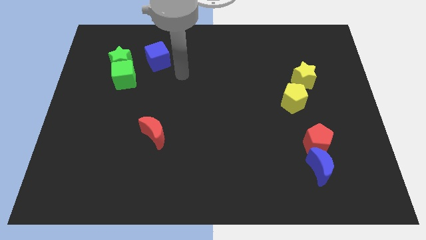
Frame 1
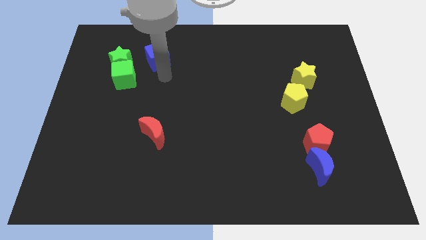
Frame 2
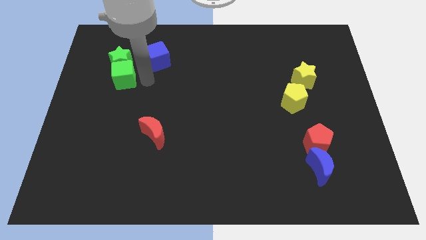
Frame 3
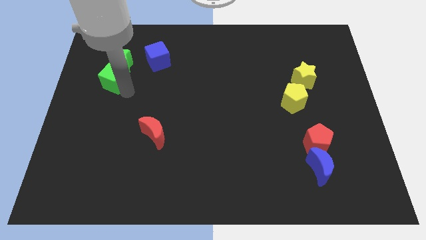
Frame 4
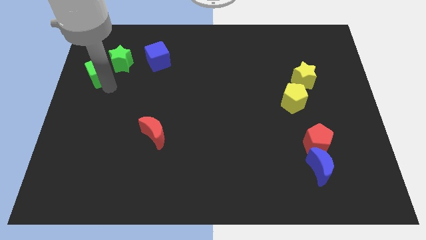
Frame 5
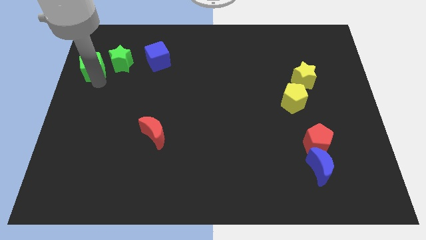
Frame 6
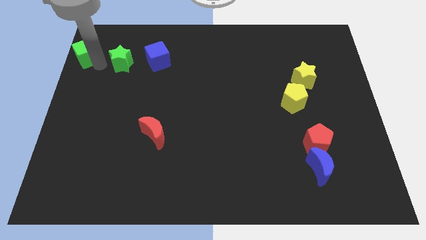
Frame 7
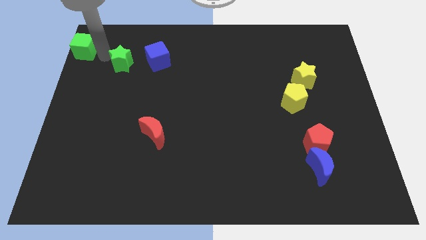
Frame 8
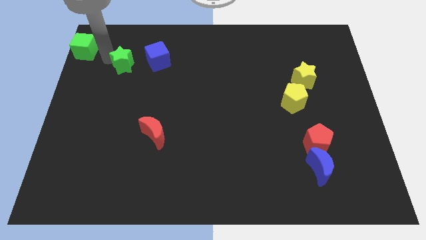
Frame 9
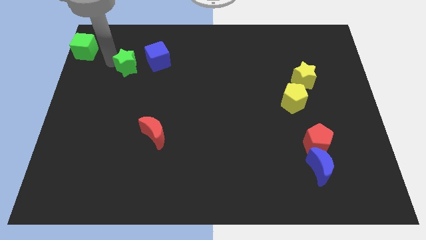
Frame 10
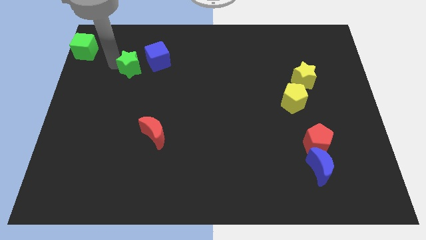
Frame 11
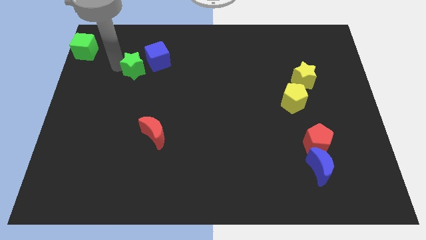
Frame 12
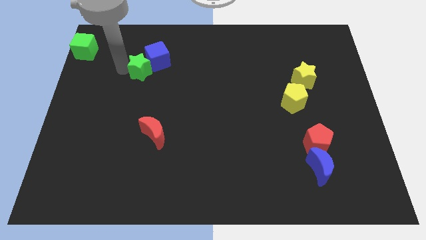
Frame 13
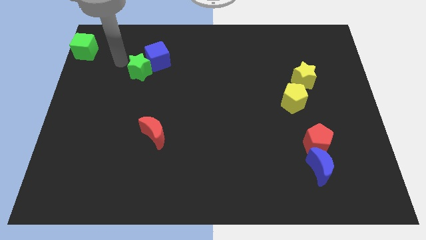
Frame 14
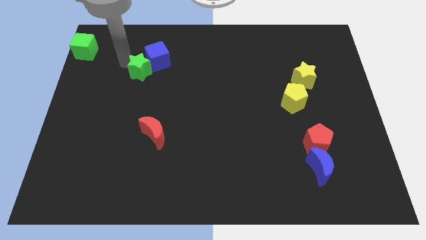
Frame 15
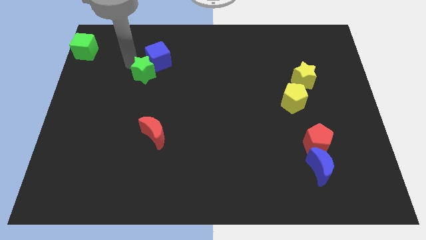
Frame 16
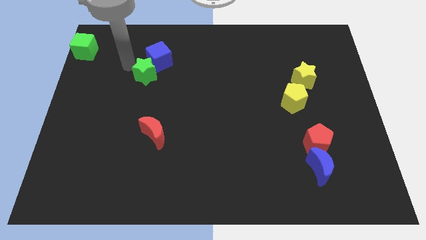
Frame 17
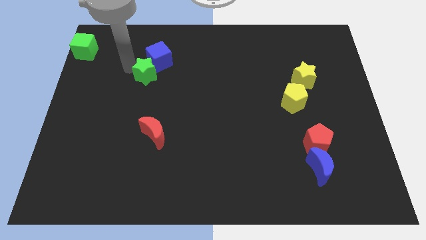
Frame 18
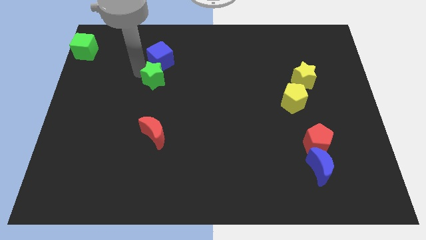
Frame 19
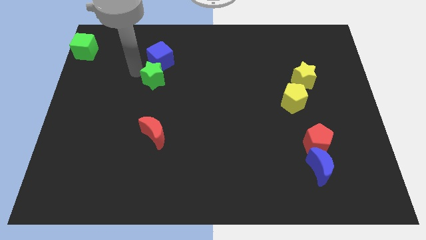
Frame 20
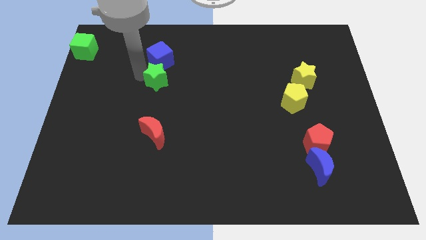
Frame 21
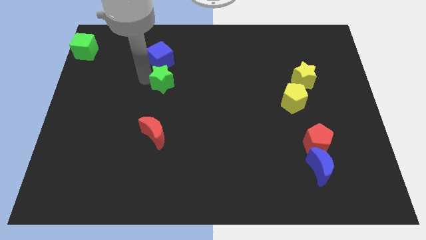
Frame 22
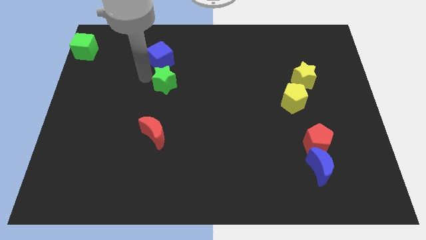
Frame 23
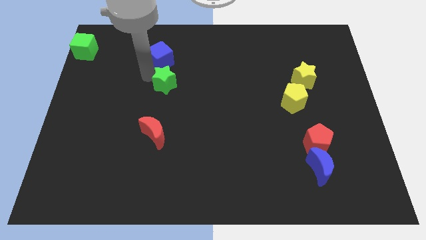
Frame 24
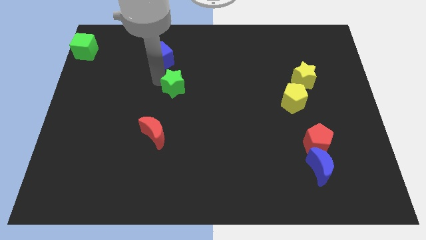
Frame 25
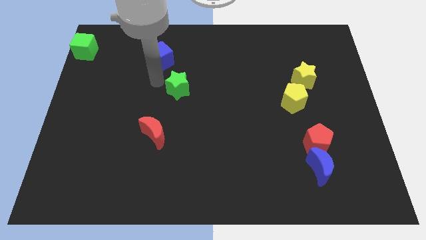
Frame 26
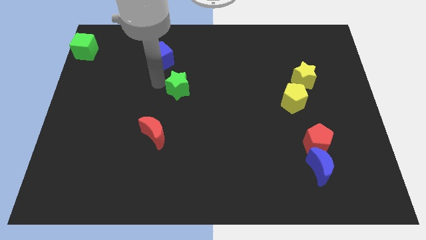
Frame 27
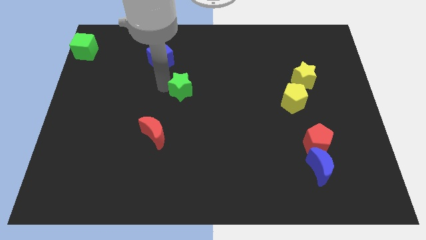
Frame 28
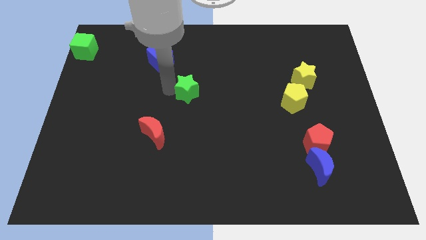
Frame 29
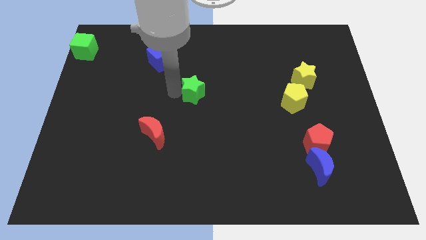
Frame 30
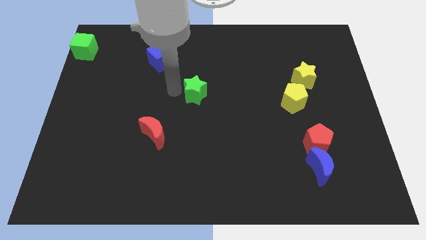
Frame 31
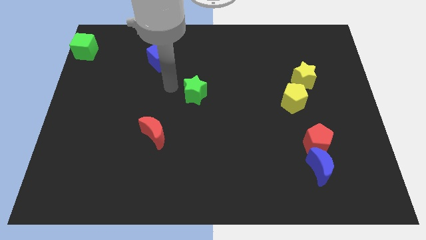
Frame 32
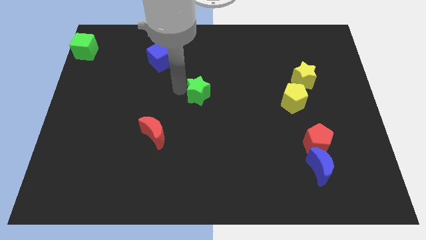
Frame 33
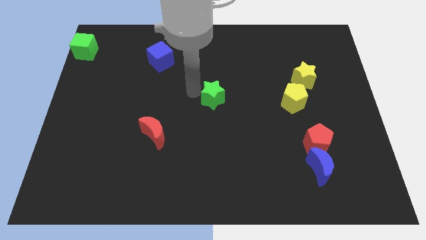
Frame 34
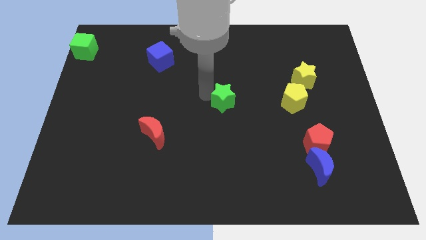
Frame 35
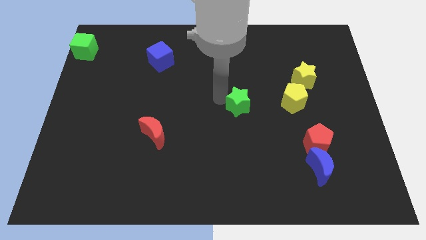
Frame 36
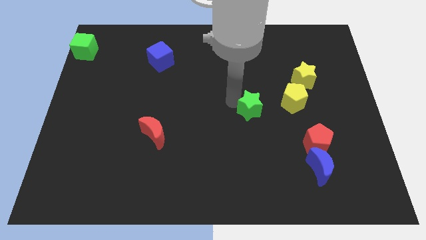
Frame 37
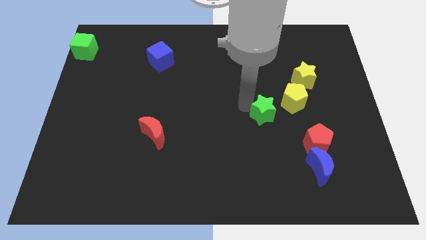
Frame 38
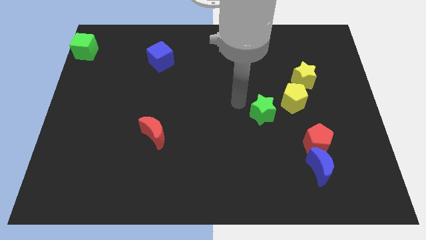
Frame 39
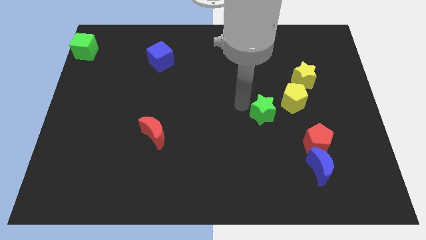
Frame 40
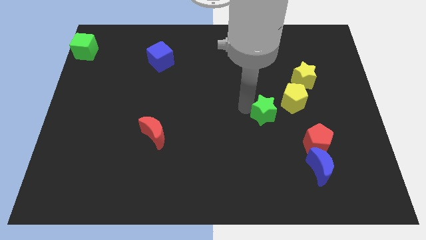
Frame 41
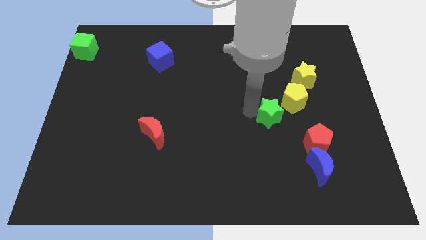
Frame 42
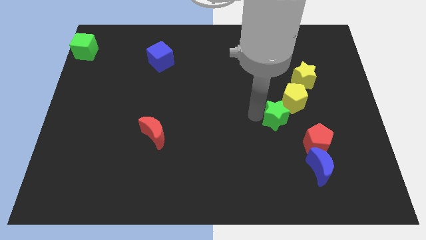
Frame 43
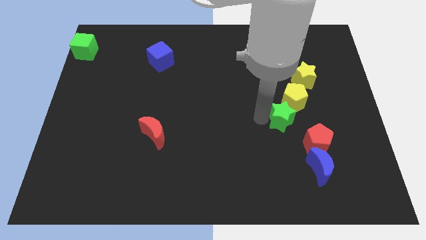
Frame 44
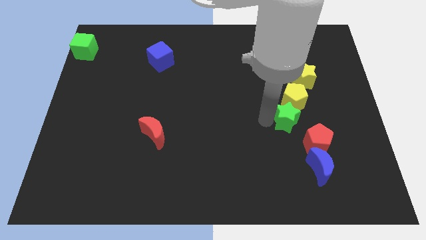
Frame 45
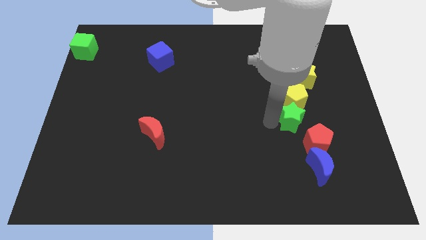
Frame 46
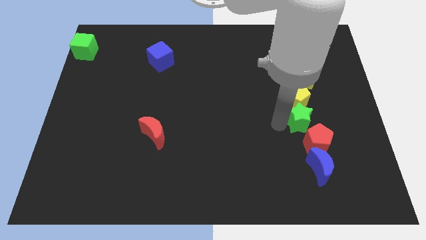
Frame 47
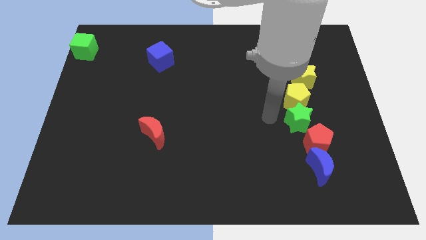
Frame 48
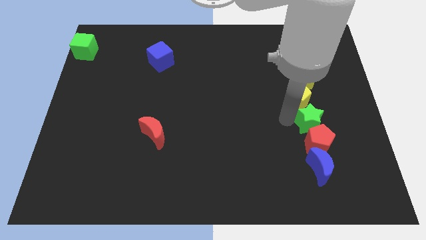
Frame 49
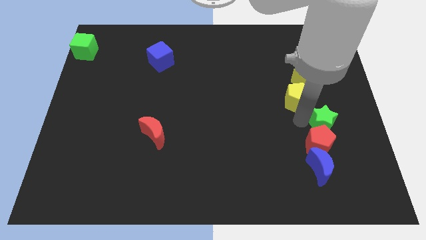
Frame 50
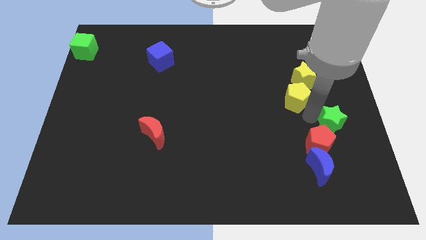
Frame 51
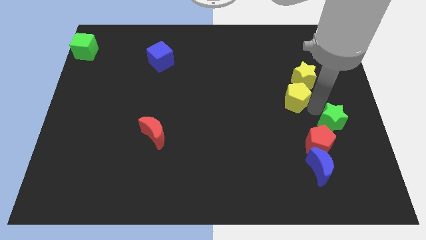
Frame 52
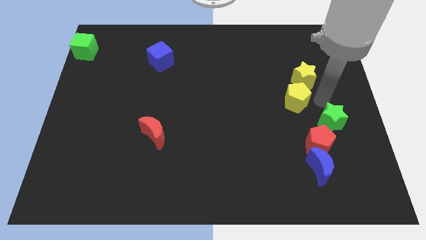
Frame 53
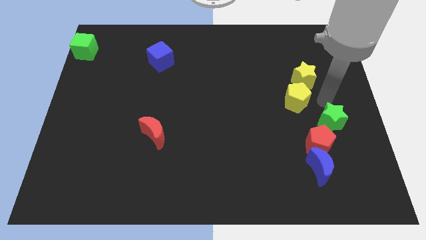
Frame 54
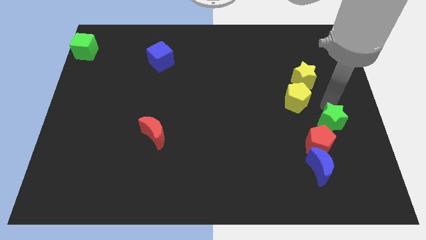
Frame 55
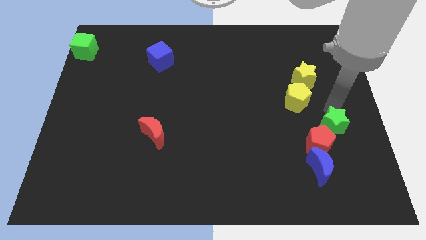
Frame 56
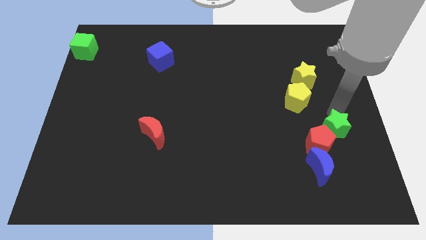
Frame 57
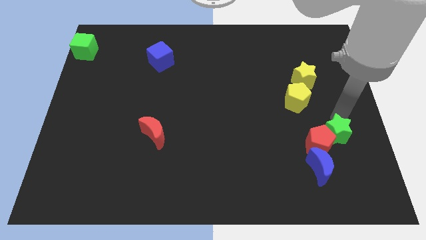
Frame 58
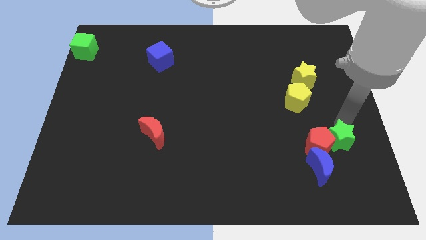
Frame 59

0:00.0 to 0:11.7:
put the green star to the bottom right side of the red pentagon

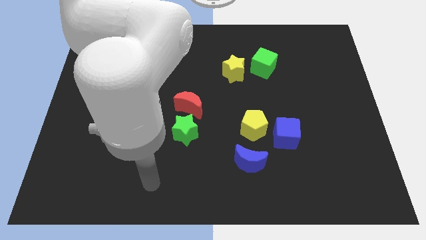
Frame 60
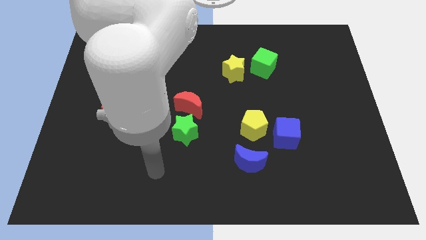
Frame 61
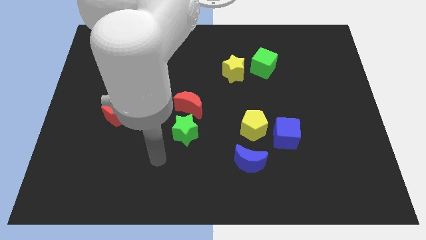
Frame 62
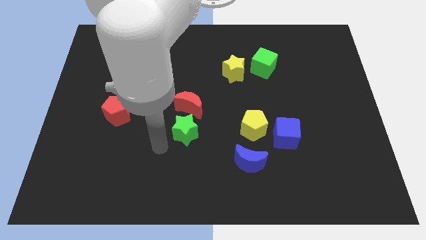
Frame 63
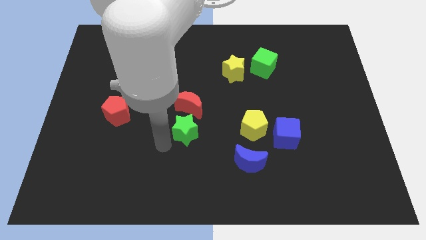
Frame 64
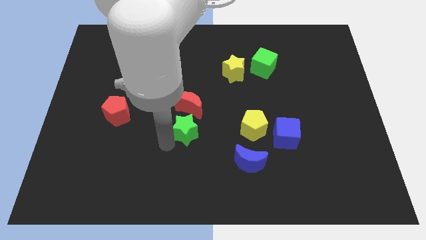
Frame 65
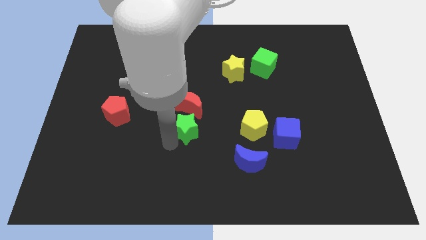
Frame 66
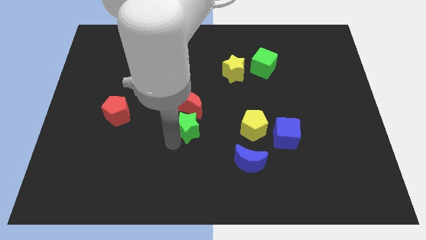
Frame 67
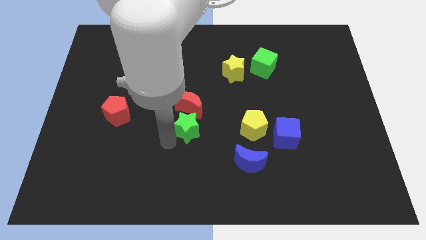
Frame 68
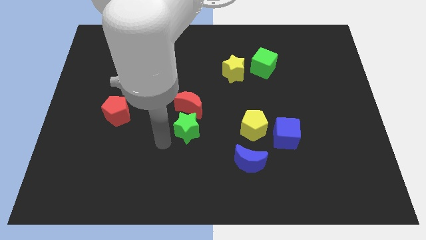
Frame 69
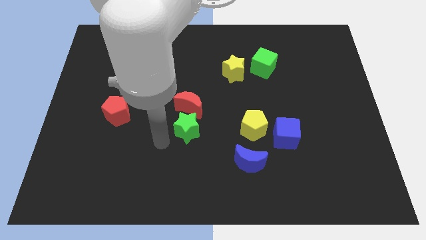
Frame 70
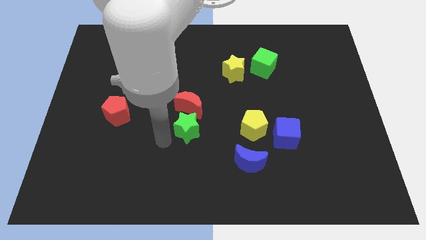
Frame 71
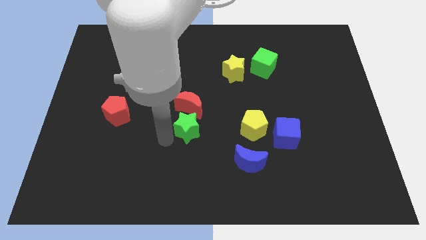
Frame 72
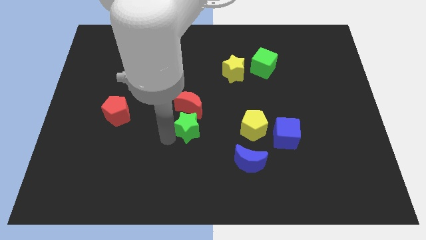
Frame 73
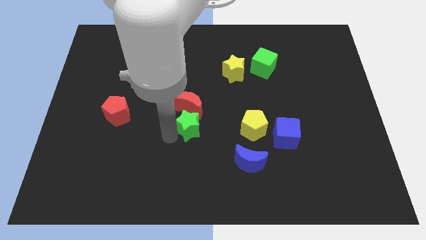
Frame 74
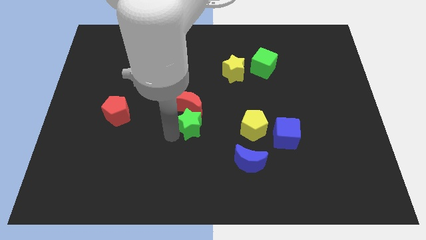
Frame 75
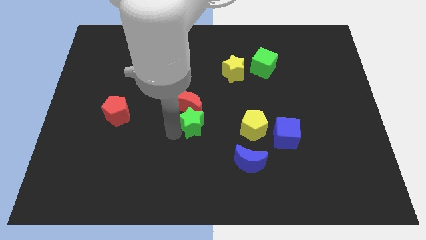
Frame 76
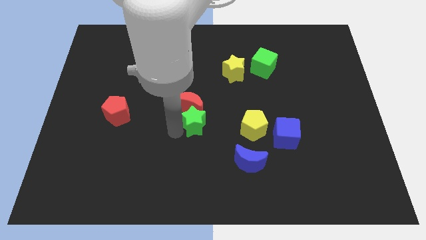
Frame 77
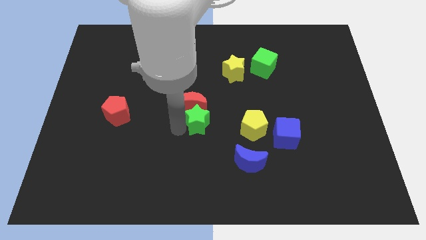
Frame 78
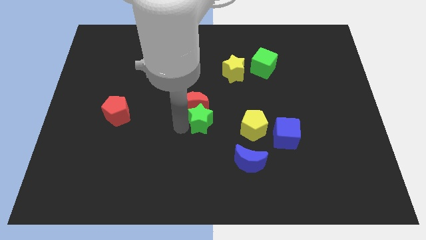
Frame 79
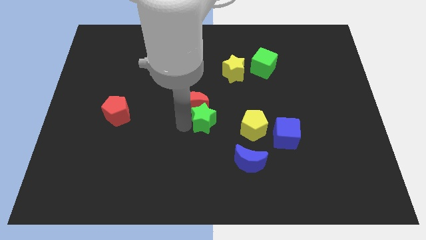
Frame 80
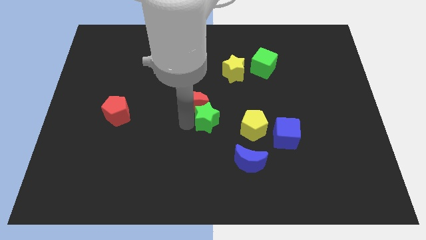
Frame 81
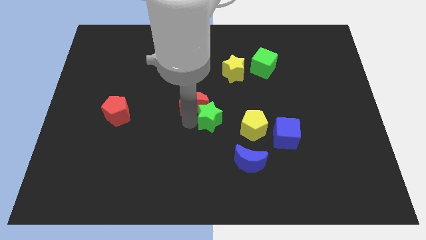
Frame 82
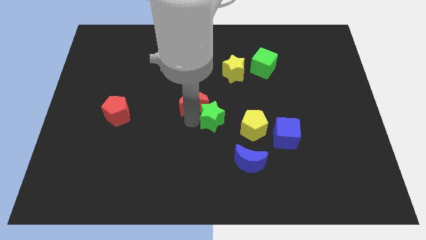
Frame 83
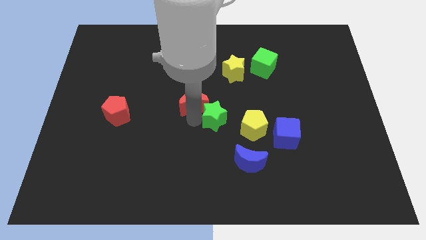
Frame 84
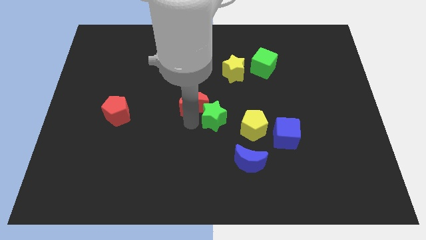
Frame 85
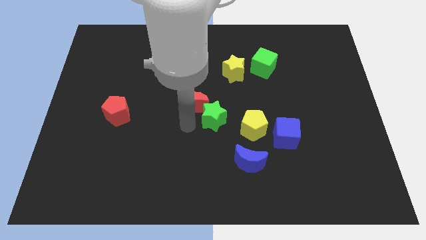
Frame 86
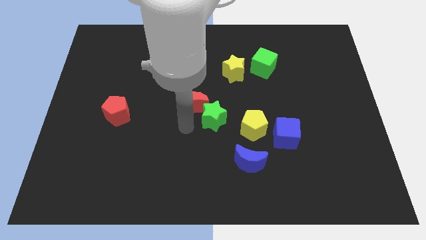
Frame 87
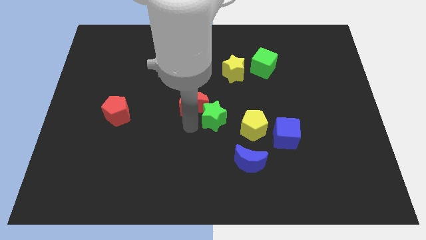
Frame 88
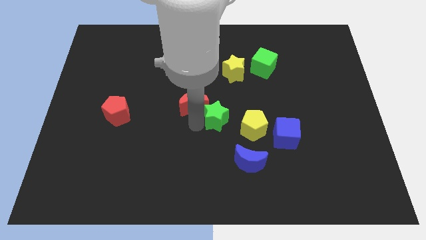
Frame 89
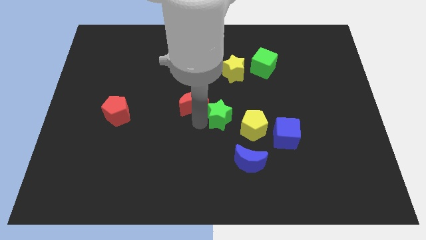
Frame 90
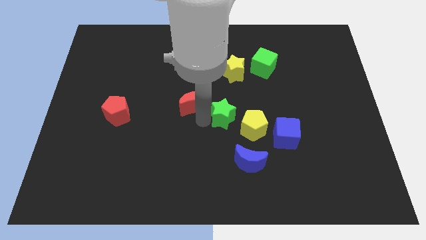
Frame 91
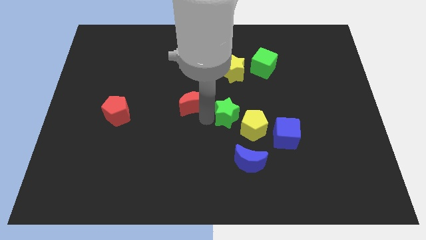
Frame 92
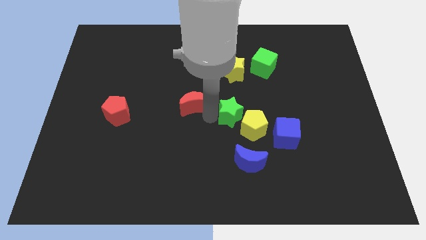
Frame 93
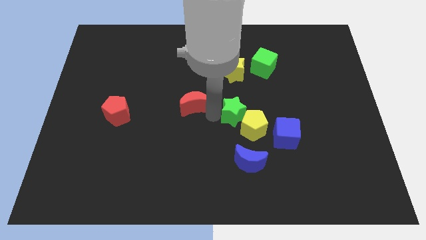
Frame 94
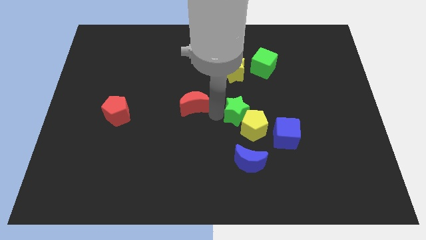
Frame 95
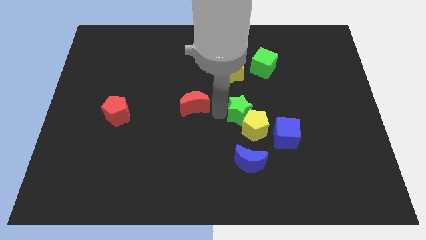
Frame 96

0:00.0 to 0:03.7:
move the green star to the top left side of the blue cube
